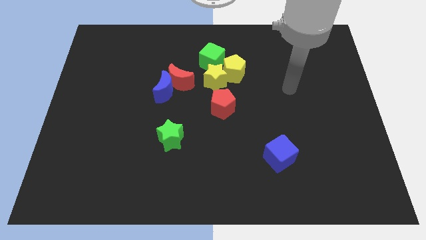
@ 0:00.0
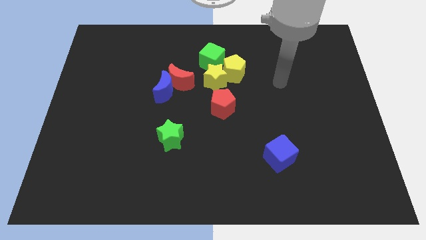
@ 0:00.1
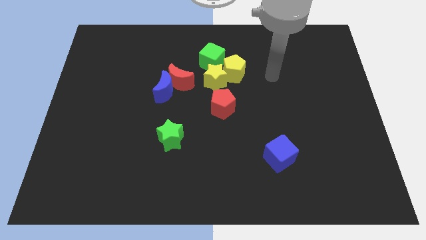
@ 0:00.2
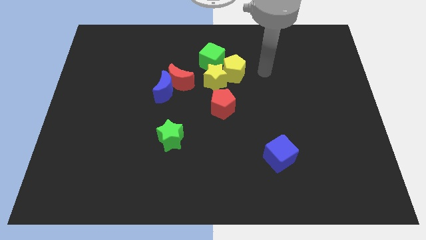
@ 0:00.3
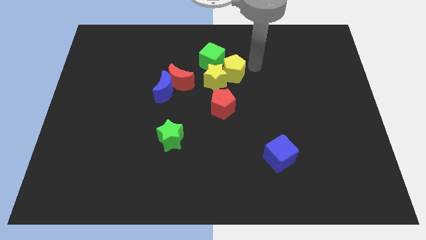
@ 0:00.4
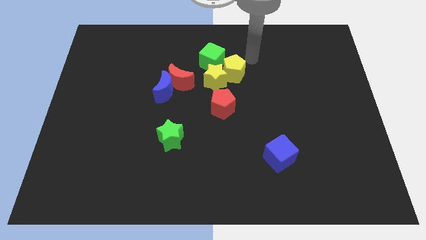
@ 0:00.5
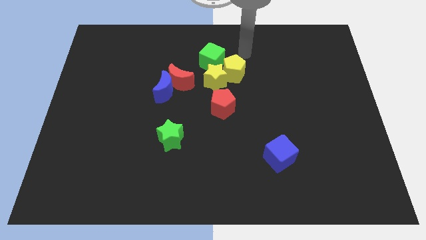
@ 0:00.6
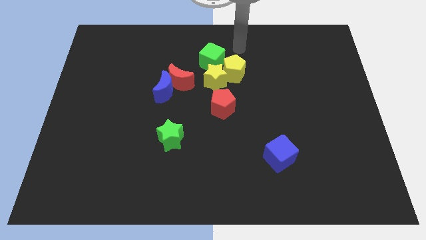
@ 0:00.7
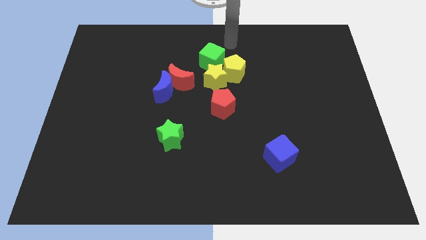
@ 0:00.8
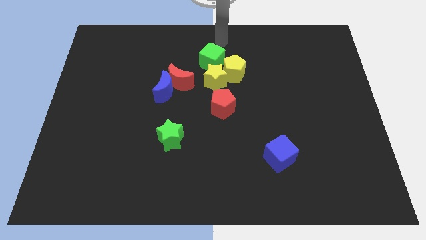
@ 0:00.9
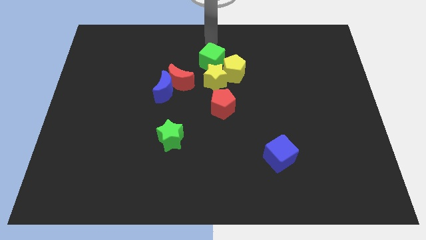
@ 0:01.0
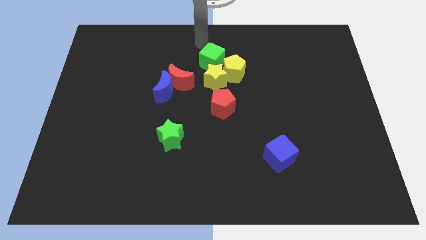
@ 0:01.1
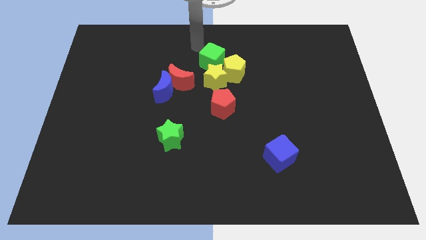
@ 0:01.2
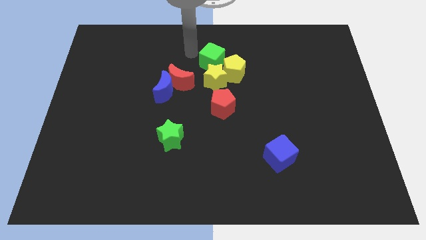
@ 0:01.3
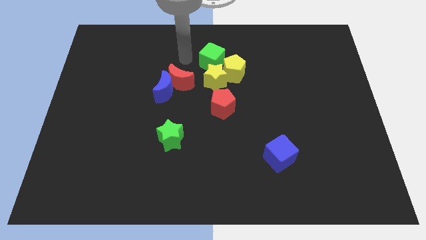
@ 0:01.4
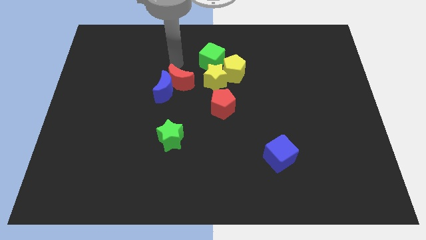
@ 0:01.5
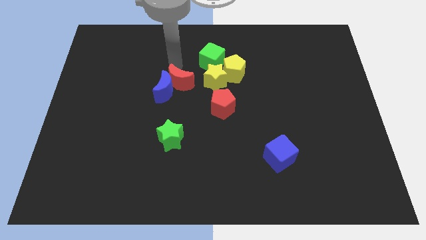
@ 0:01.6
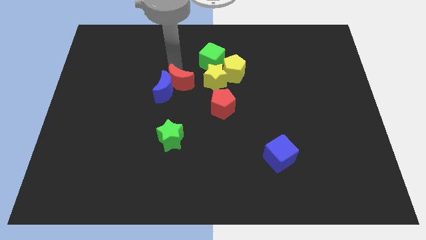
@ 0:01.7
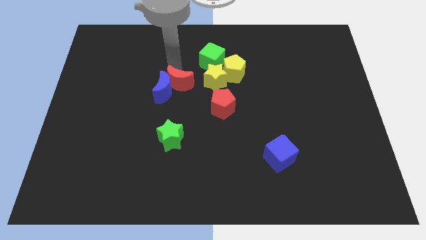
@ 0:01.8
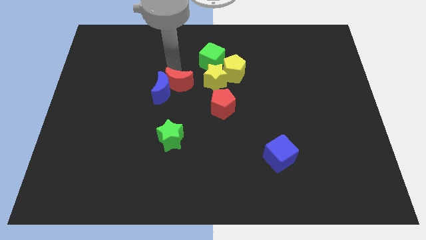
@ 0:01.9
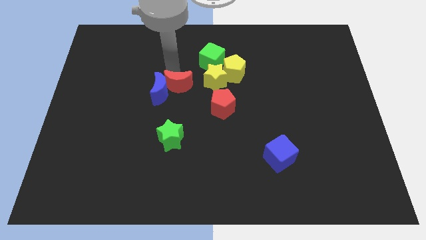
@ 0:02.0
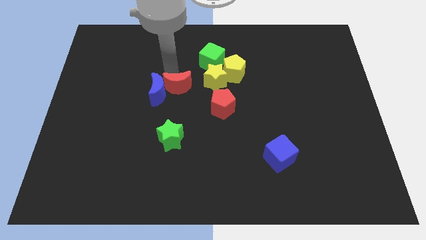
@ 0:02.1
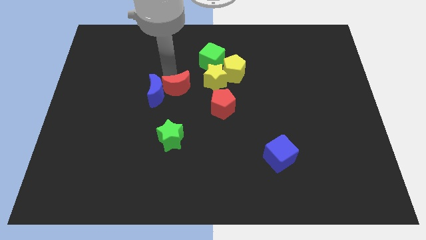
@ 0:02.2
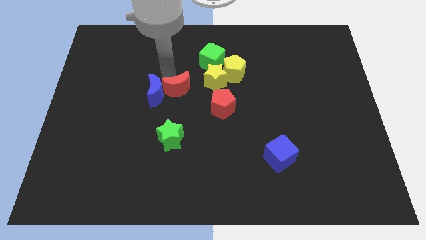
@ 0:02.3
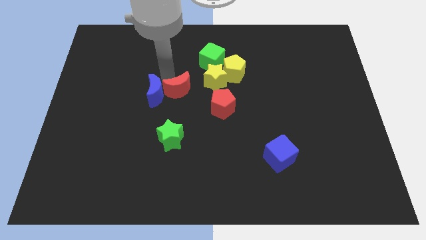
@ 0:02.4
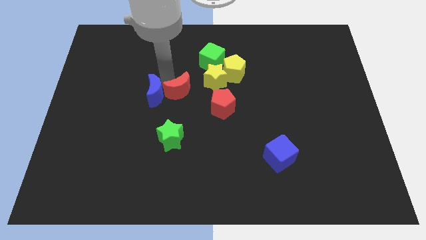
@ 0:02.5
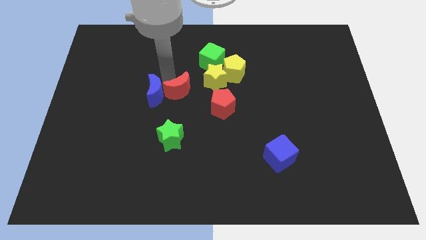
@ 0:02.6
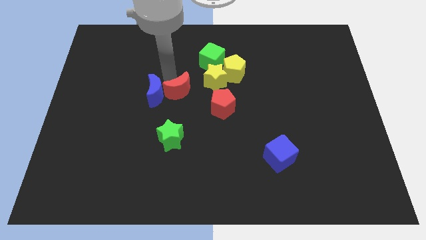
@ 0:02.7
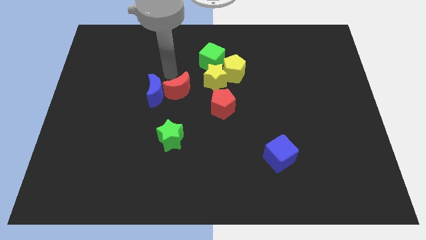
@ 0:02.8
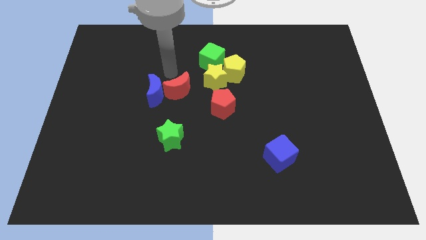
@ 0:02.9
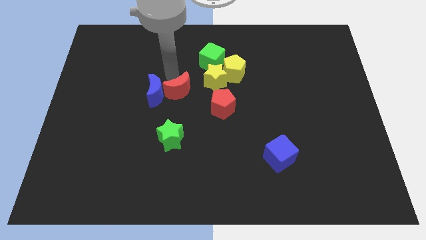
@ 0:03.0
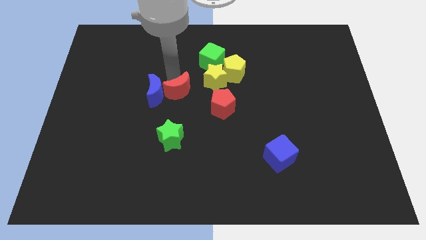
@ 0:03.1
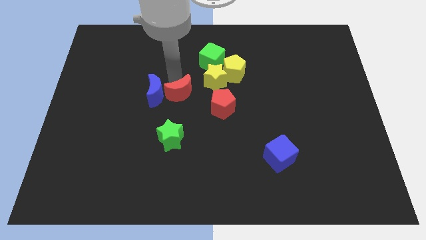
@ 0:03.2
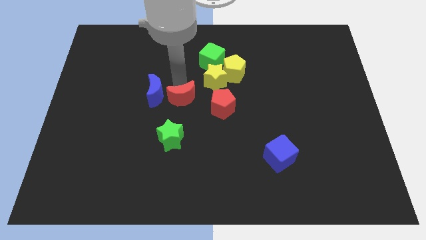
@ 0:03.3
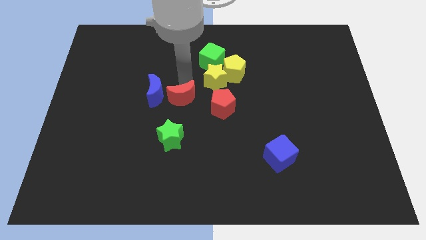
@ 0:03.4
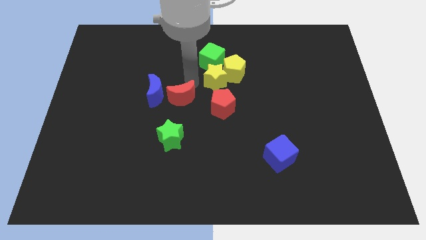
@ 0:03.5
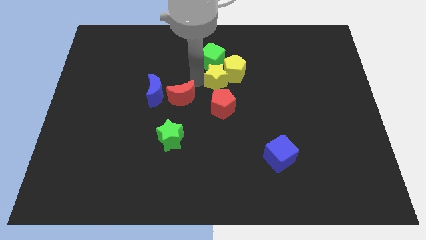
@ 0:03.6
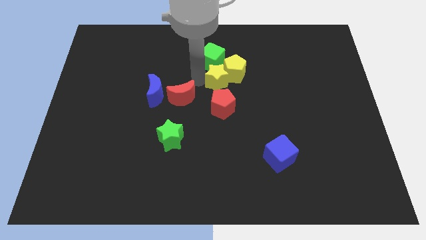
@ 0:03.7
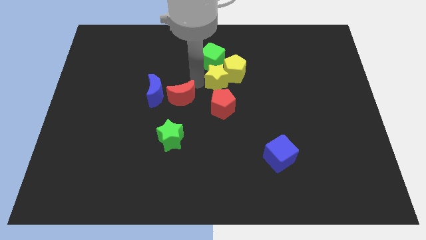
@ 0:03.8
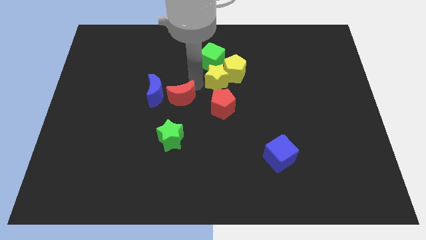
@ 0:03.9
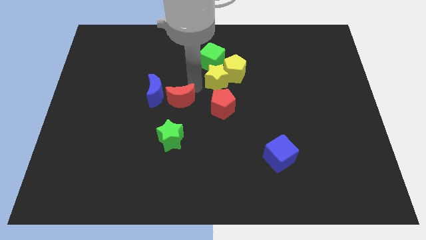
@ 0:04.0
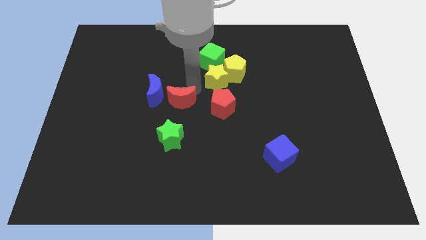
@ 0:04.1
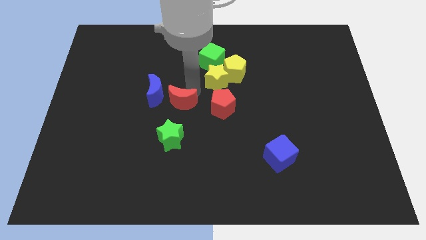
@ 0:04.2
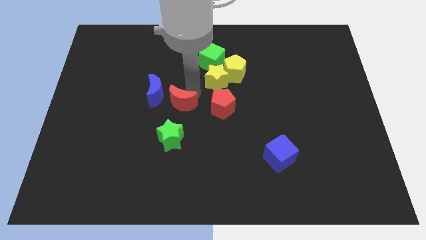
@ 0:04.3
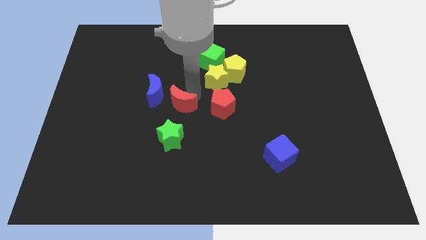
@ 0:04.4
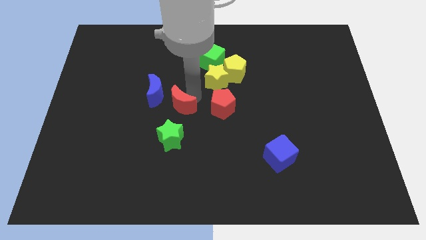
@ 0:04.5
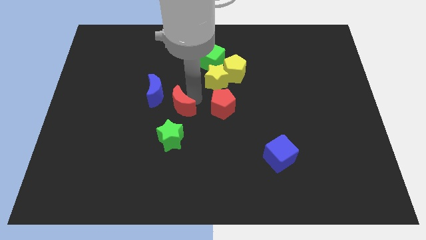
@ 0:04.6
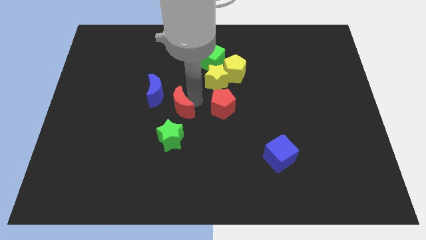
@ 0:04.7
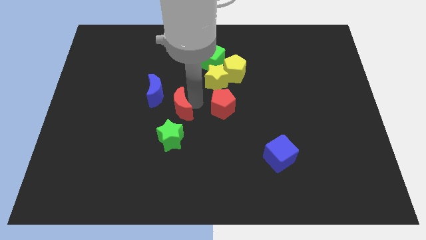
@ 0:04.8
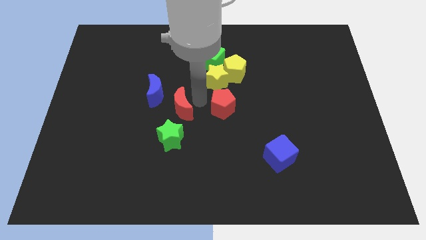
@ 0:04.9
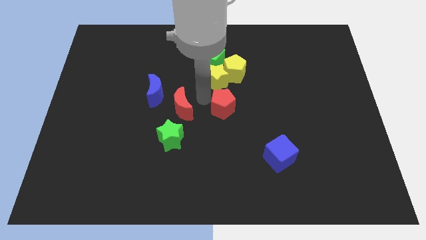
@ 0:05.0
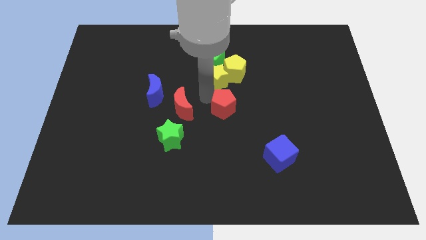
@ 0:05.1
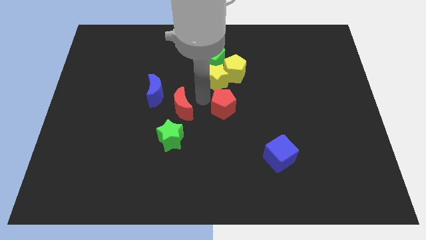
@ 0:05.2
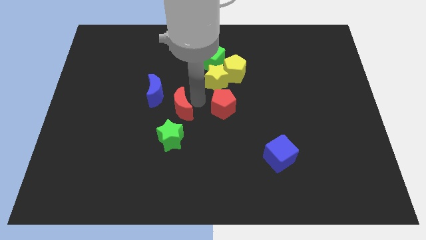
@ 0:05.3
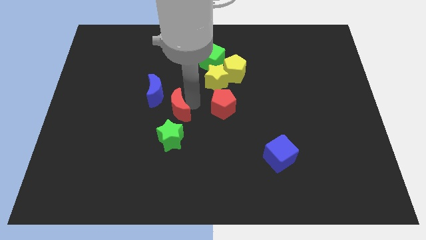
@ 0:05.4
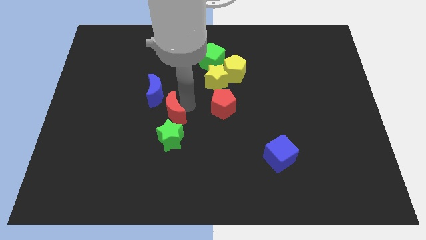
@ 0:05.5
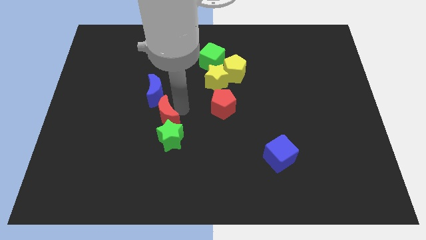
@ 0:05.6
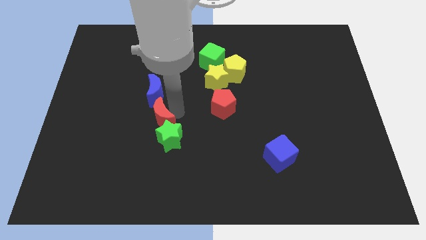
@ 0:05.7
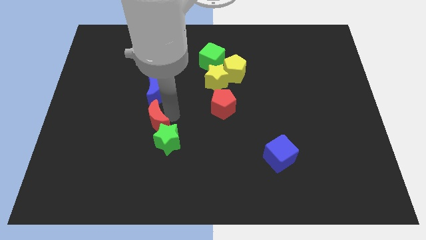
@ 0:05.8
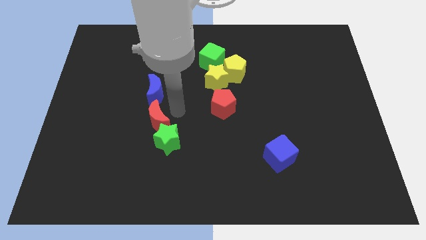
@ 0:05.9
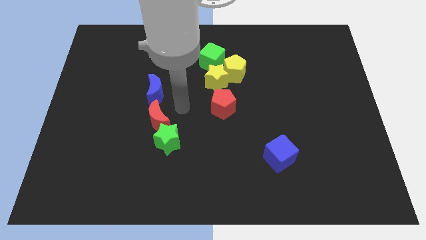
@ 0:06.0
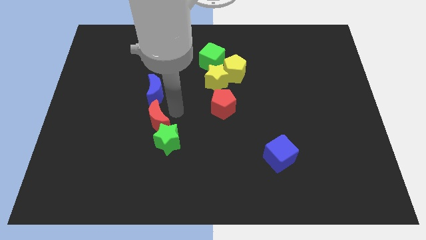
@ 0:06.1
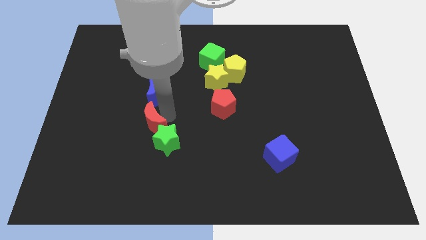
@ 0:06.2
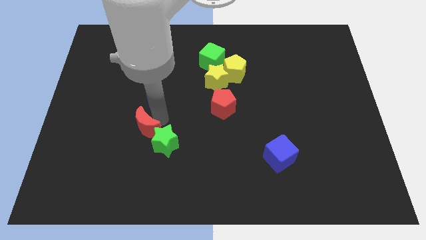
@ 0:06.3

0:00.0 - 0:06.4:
put the red moon to the left of the green star

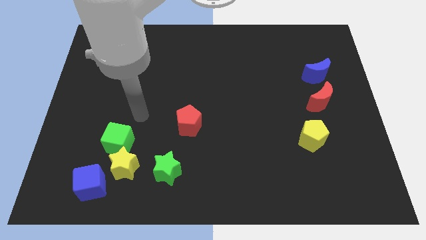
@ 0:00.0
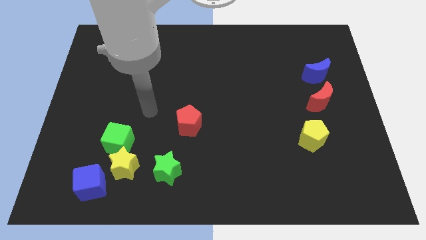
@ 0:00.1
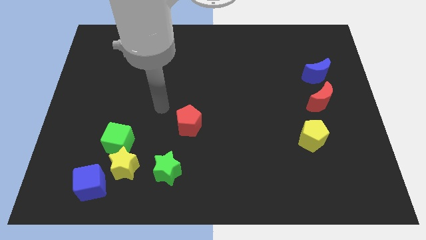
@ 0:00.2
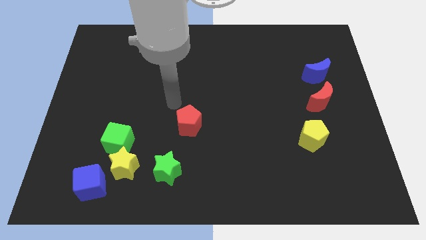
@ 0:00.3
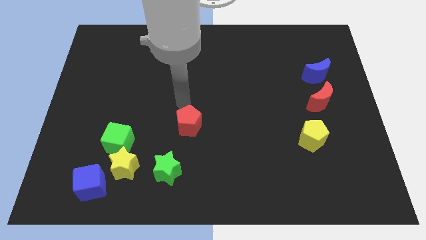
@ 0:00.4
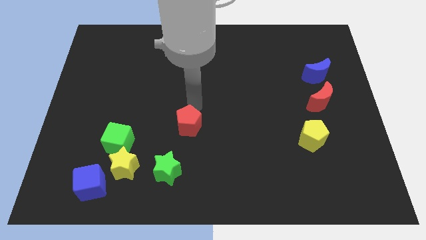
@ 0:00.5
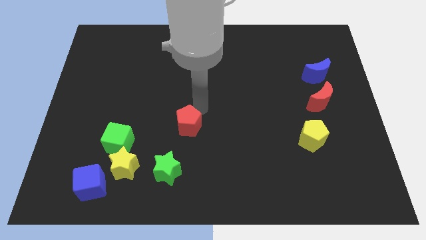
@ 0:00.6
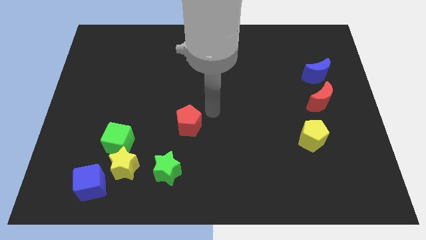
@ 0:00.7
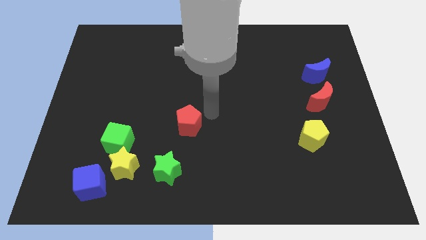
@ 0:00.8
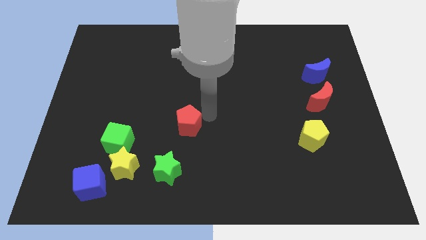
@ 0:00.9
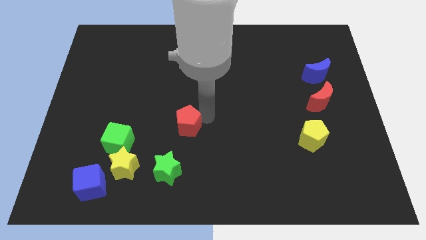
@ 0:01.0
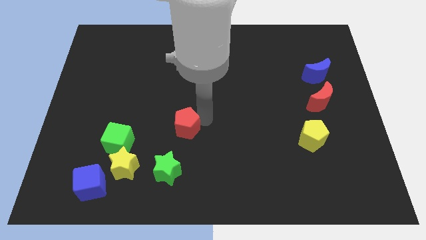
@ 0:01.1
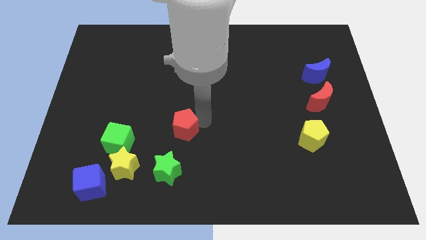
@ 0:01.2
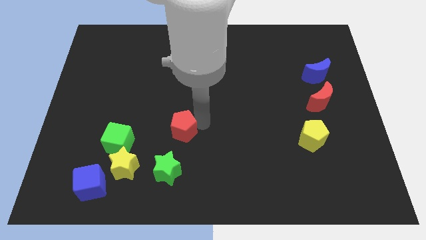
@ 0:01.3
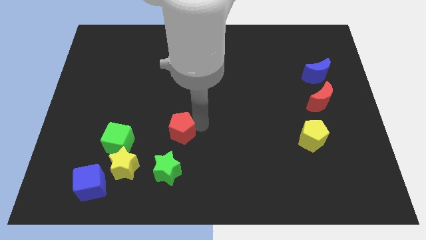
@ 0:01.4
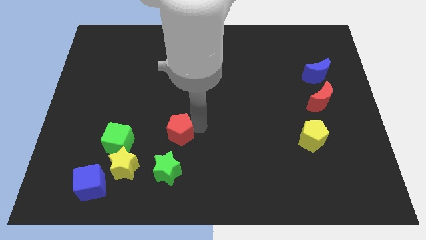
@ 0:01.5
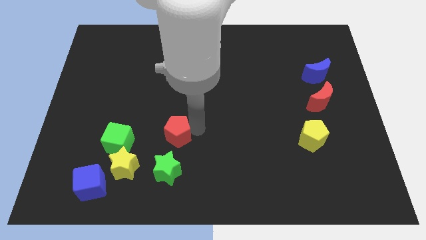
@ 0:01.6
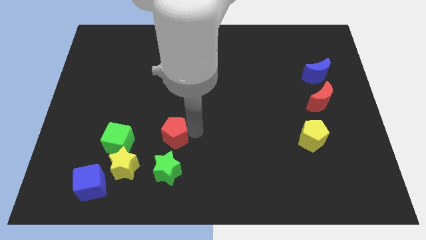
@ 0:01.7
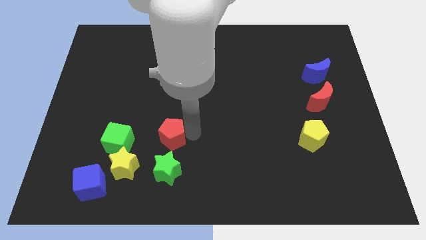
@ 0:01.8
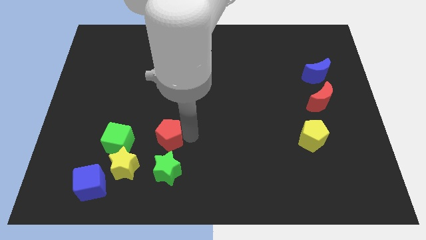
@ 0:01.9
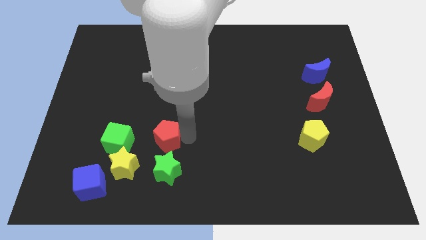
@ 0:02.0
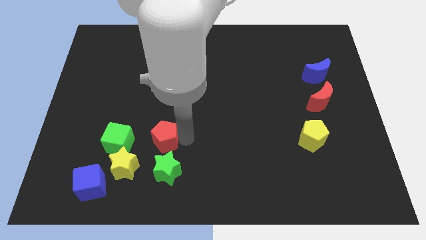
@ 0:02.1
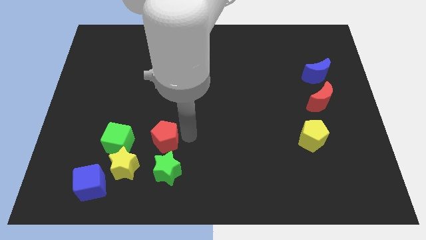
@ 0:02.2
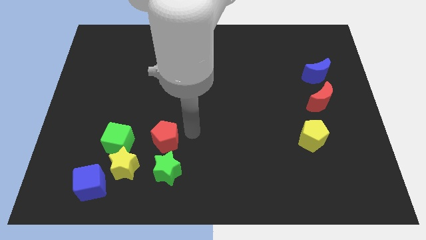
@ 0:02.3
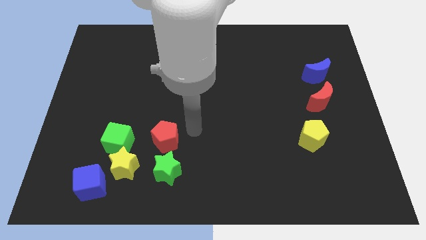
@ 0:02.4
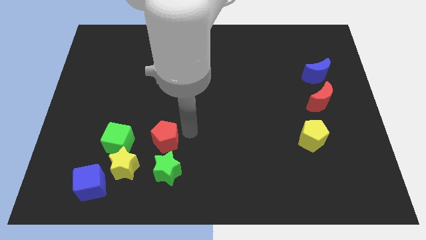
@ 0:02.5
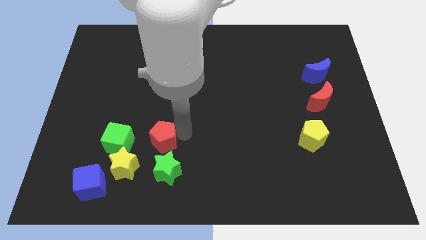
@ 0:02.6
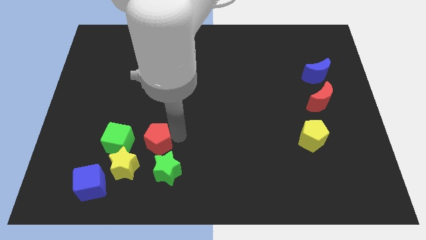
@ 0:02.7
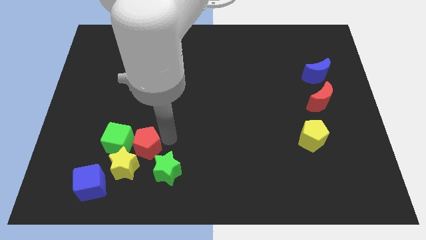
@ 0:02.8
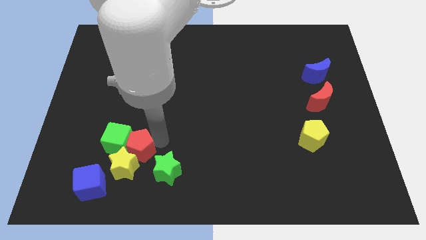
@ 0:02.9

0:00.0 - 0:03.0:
push the red pentagon diagonally up and to the right of the blue cube
